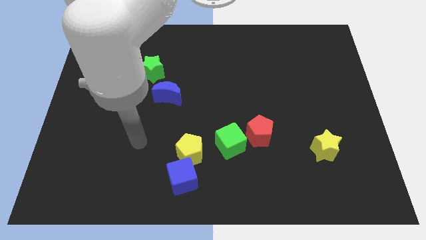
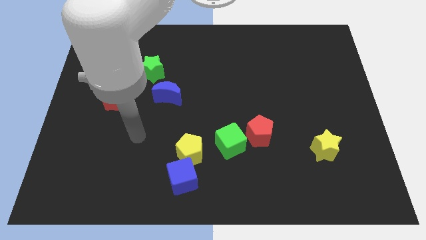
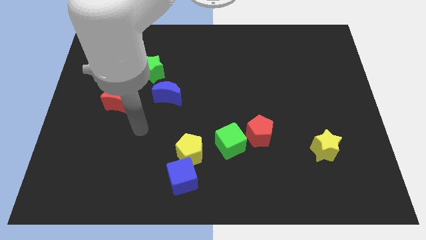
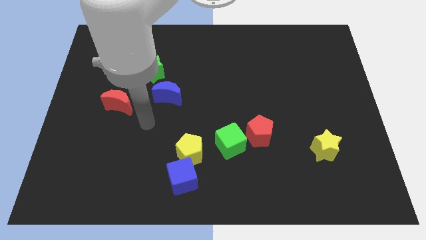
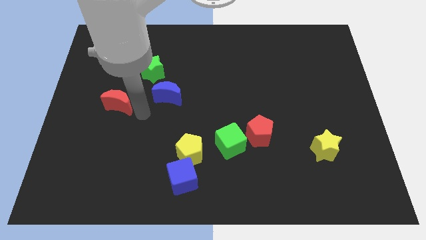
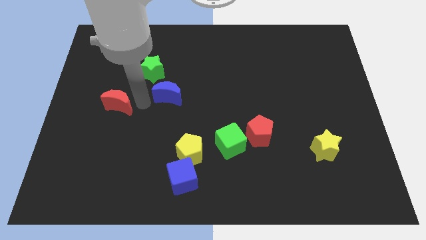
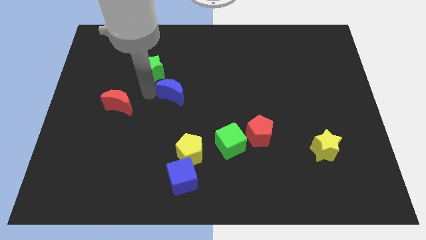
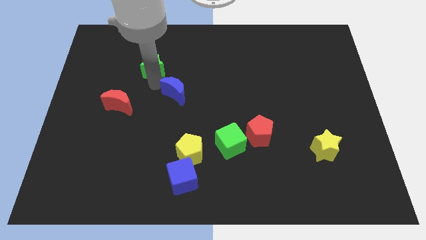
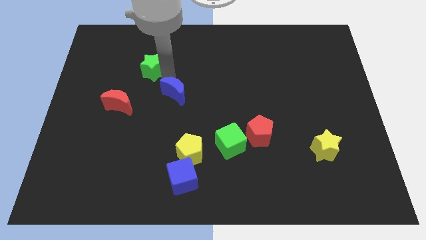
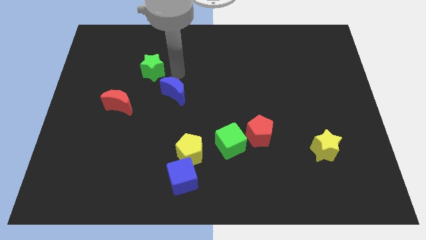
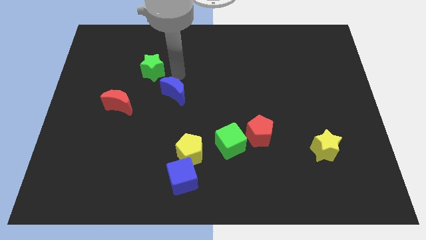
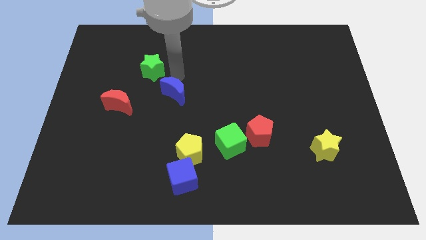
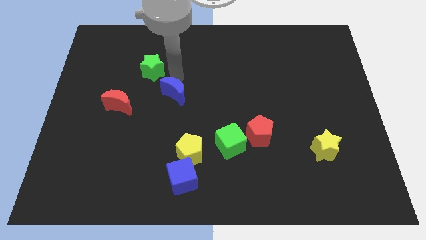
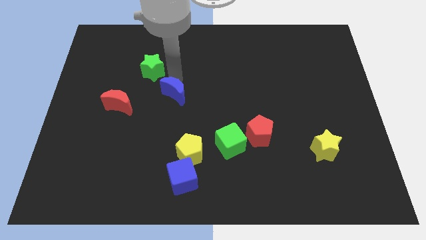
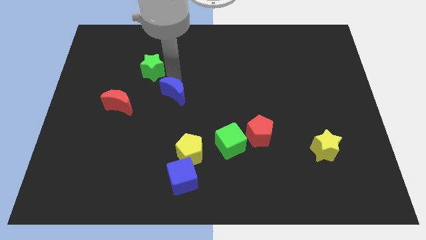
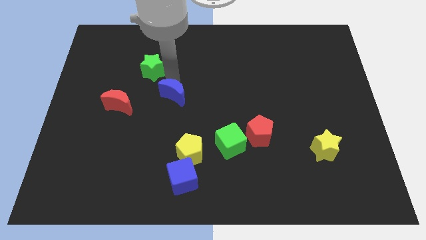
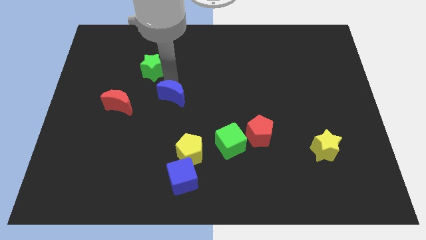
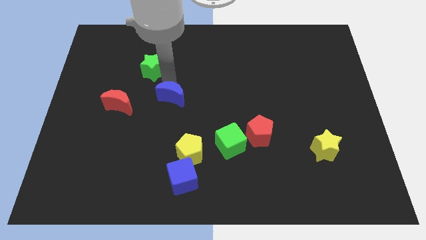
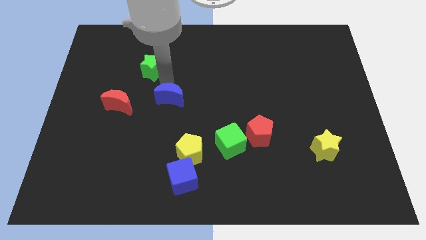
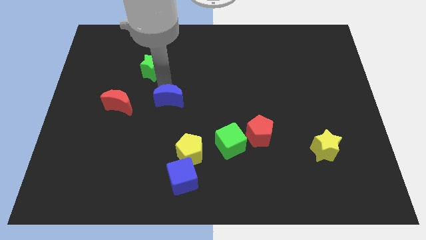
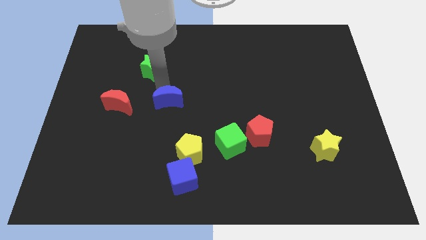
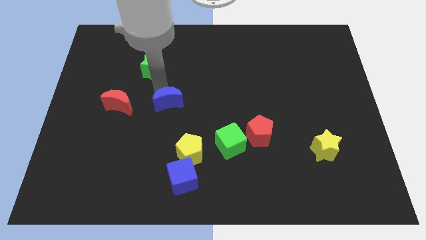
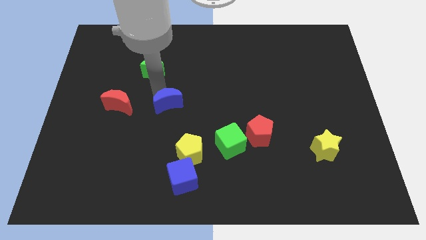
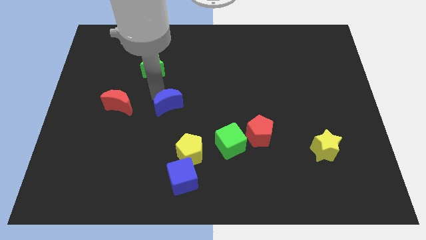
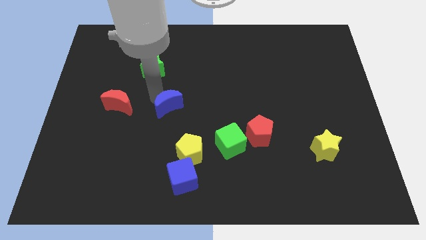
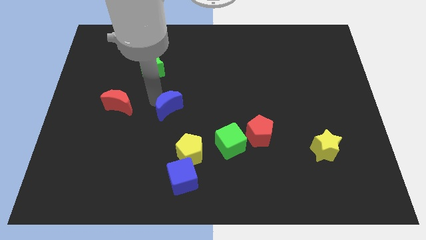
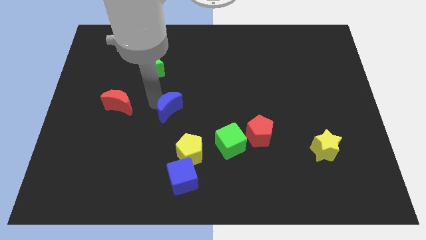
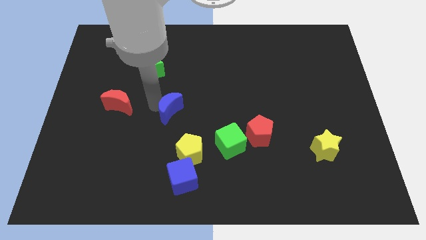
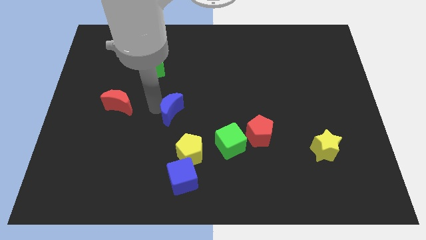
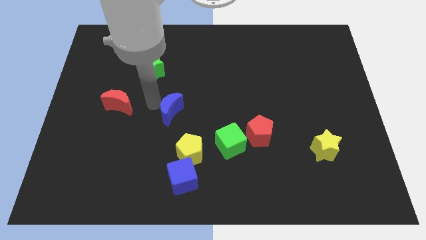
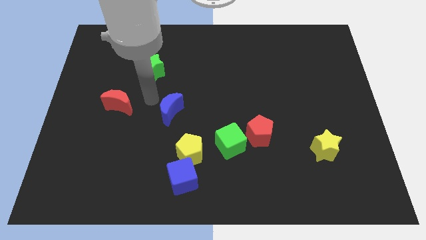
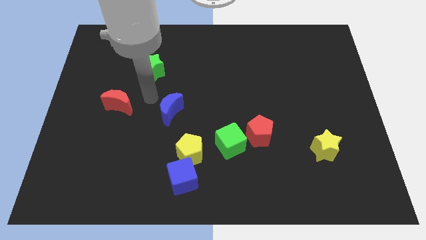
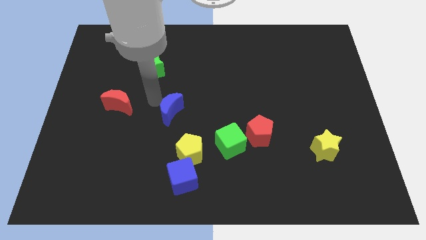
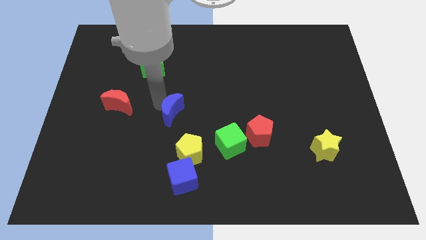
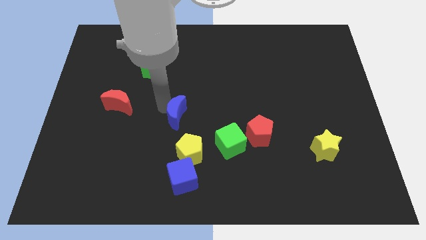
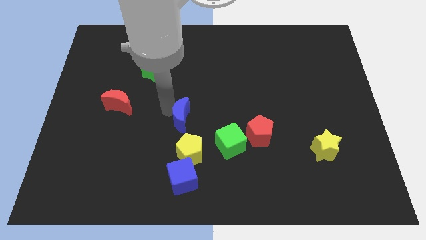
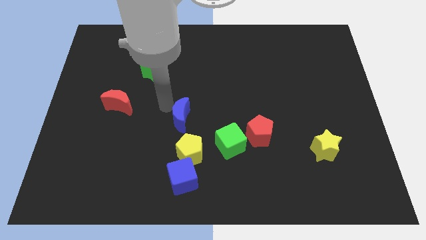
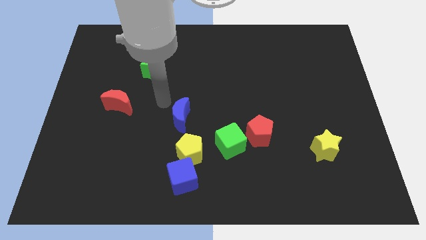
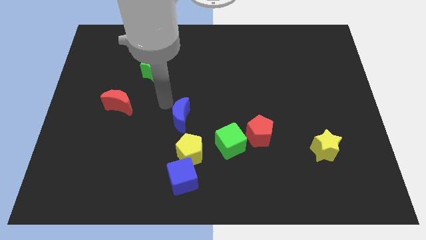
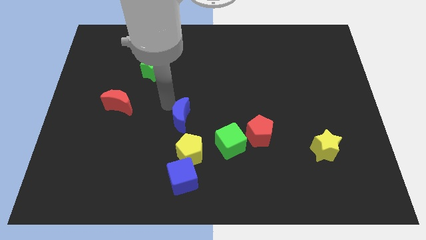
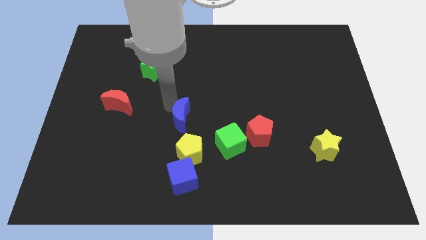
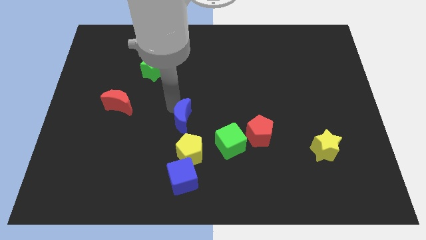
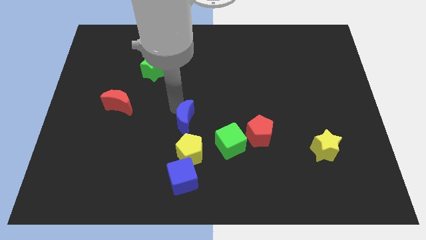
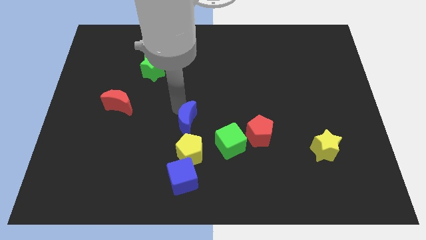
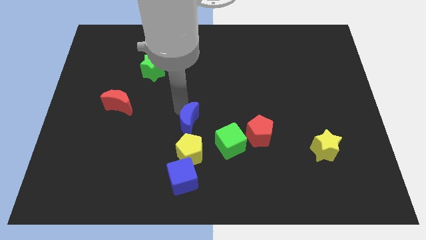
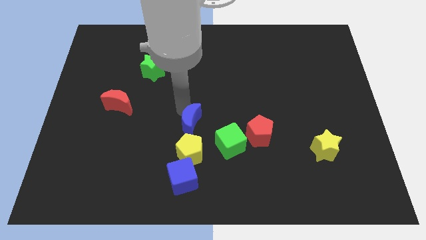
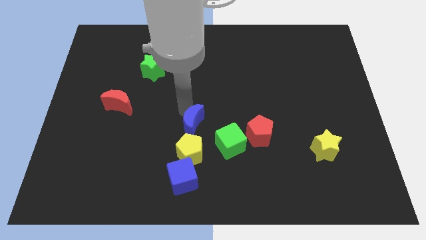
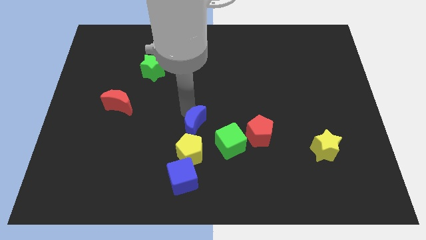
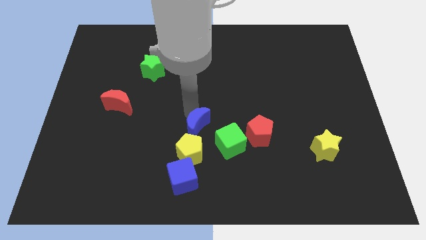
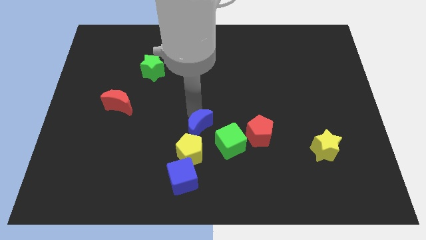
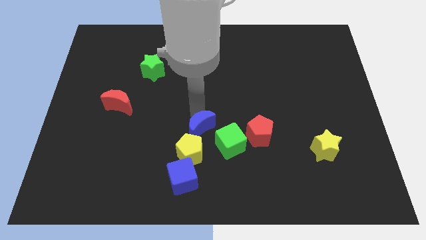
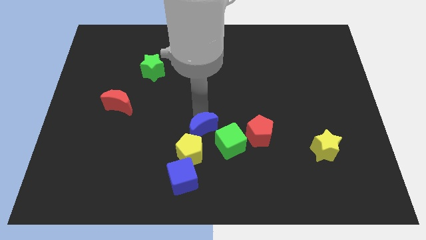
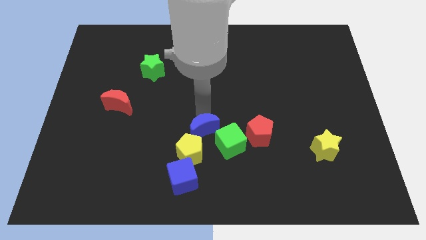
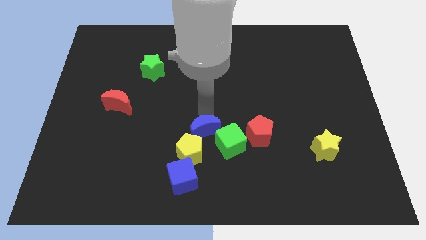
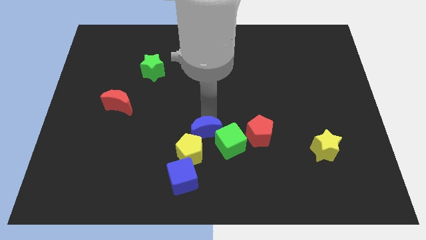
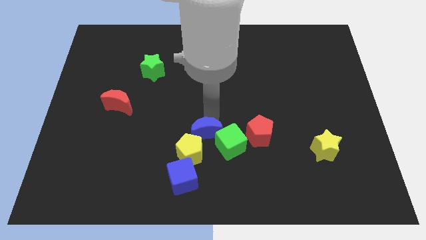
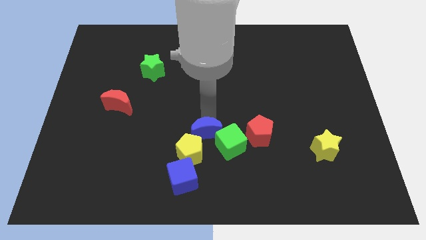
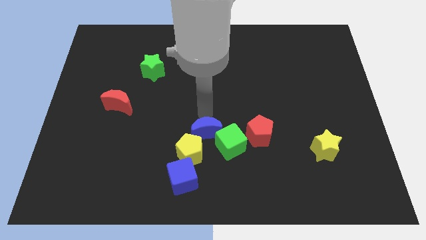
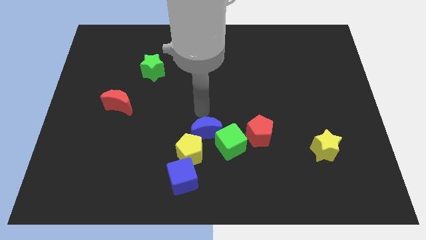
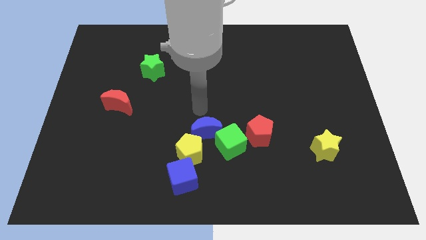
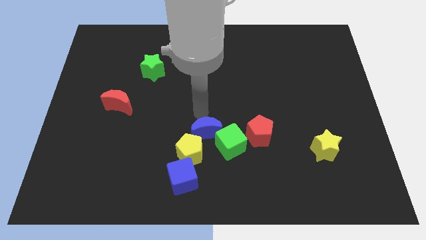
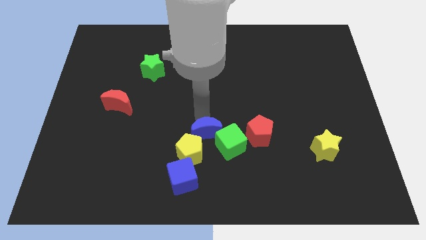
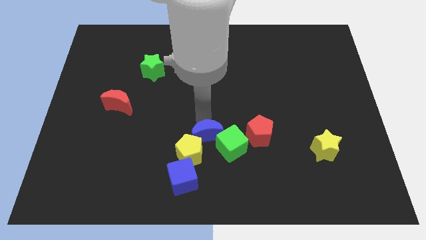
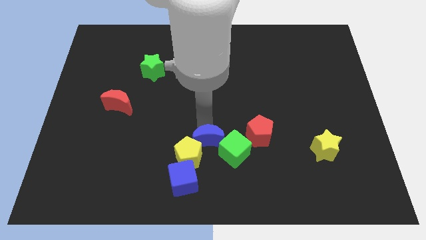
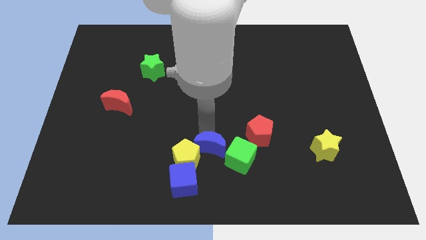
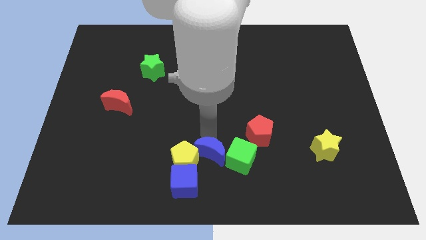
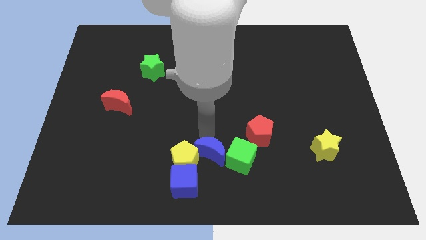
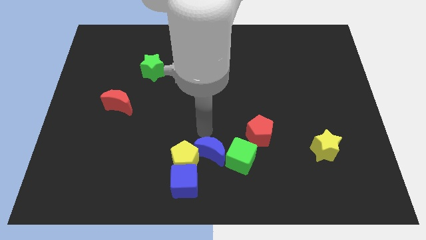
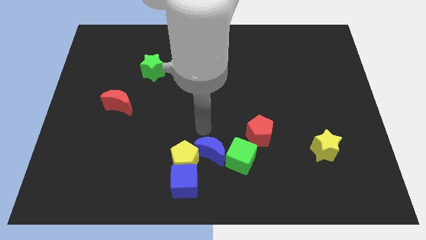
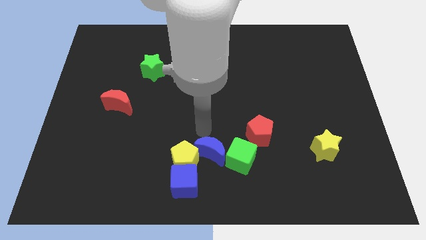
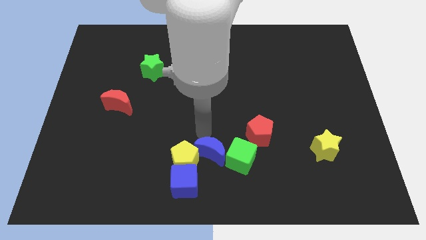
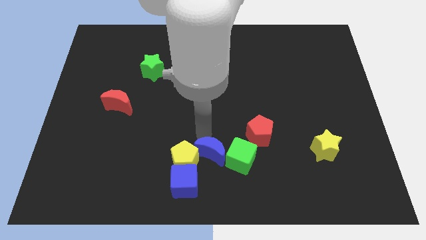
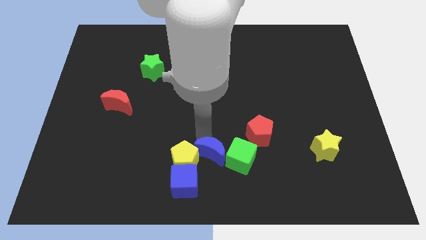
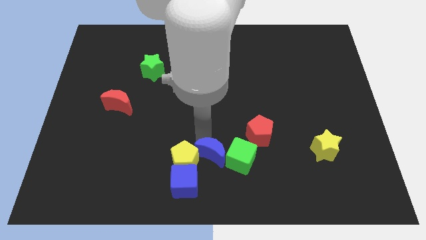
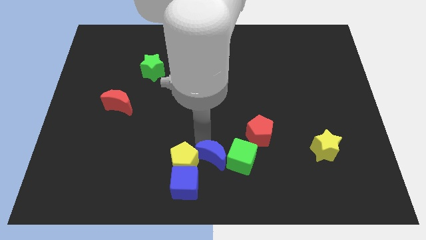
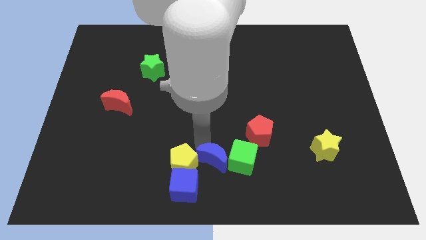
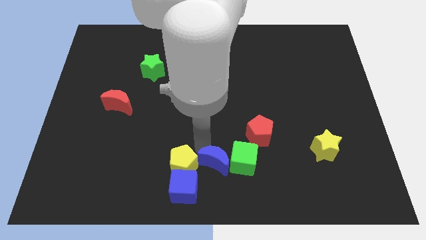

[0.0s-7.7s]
push the blue moon down and then to the right
